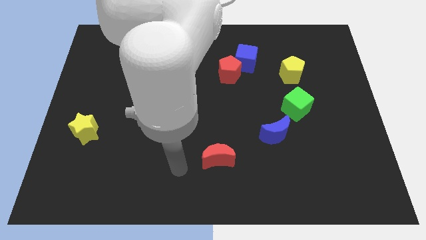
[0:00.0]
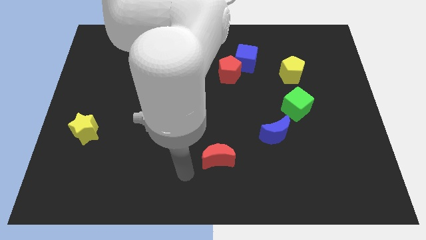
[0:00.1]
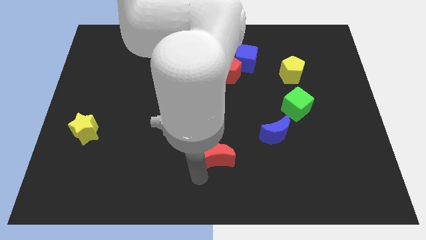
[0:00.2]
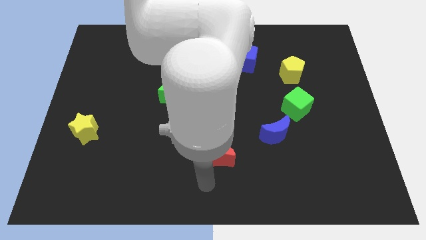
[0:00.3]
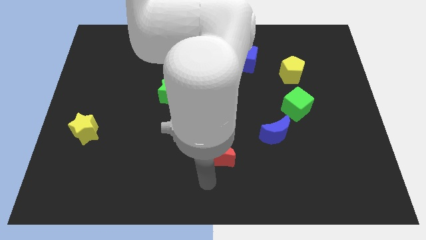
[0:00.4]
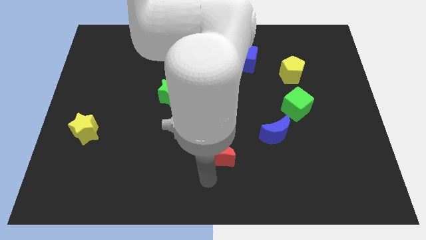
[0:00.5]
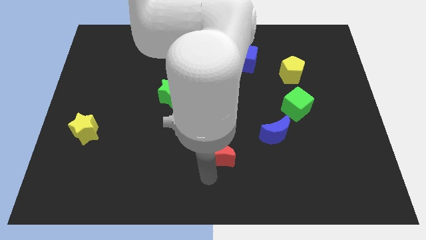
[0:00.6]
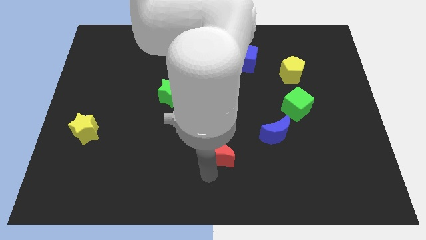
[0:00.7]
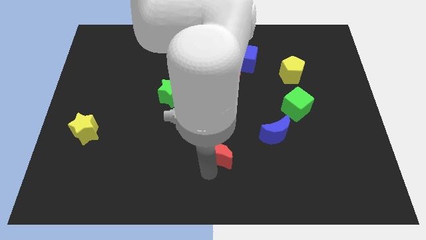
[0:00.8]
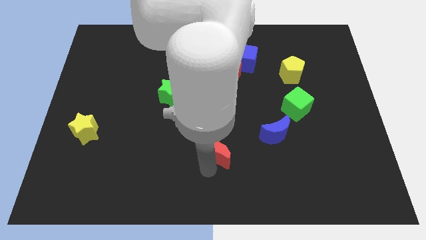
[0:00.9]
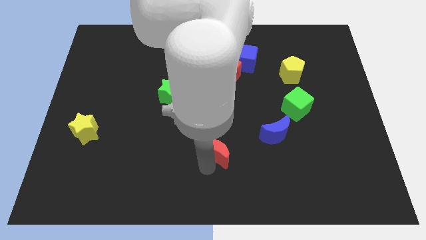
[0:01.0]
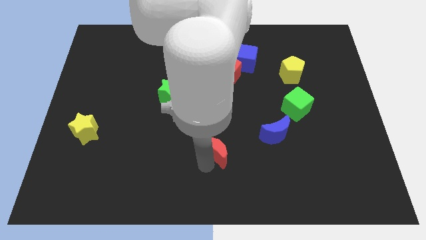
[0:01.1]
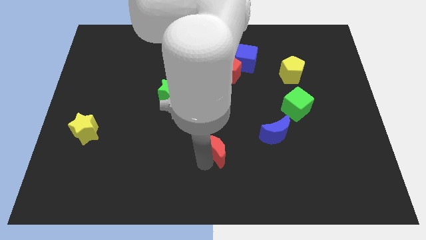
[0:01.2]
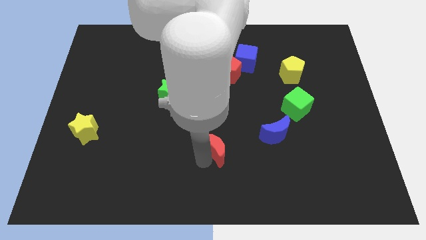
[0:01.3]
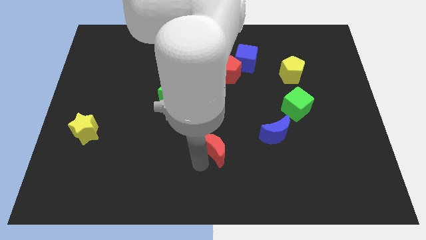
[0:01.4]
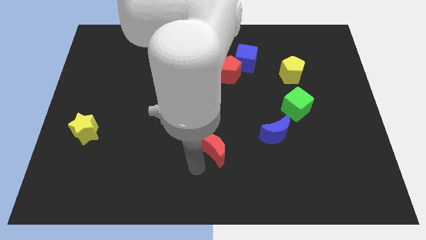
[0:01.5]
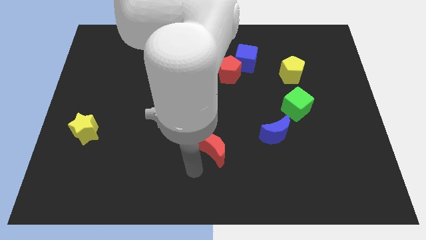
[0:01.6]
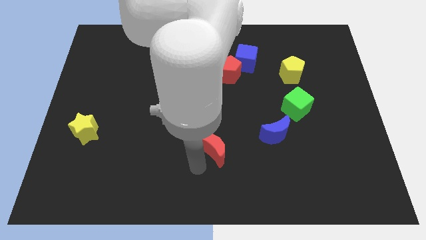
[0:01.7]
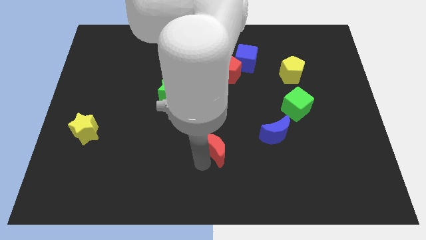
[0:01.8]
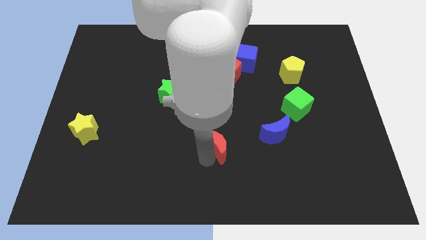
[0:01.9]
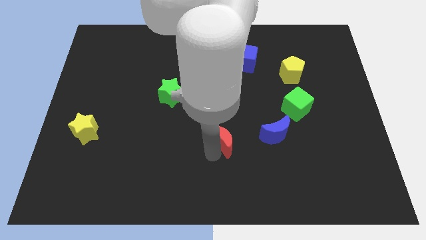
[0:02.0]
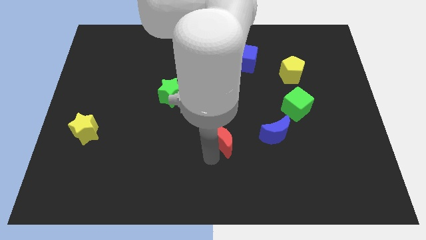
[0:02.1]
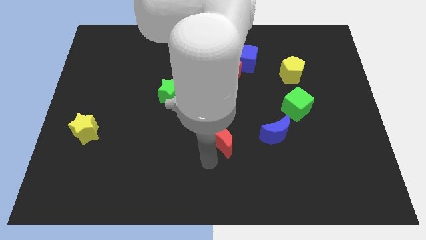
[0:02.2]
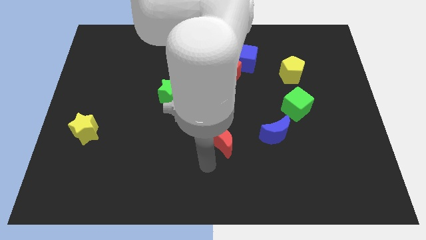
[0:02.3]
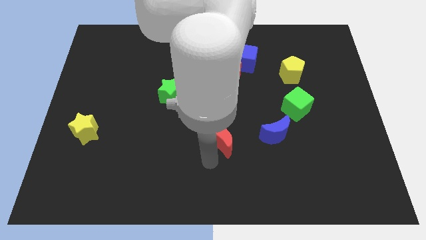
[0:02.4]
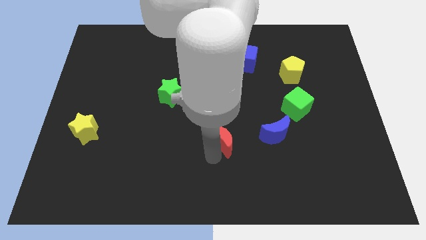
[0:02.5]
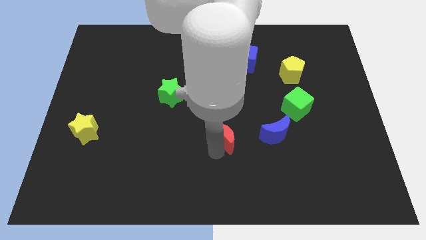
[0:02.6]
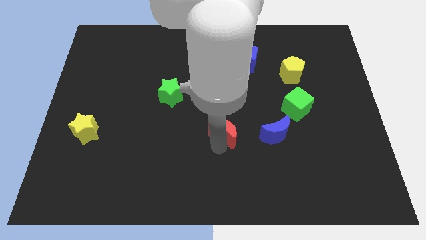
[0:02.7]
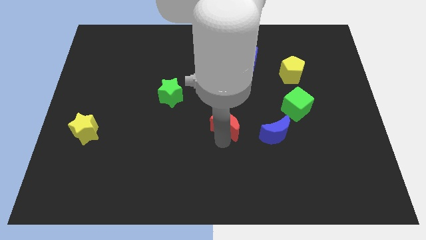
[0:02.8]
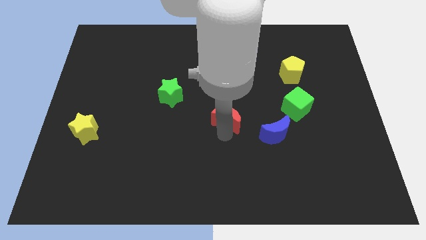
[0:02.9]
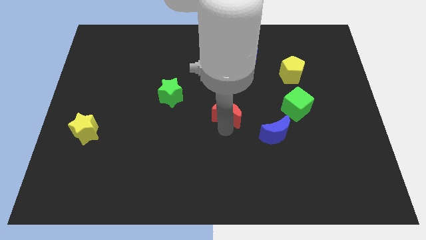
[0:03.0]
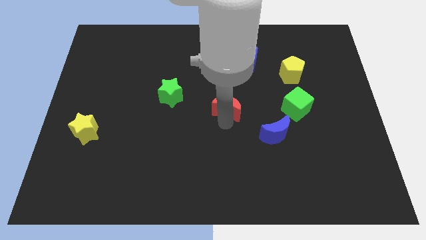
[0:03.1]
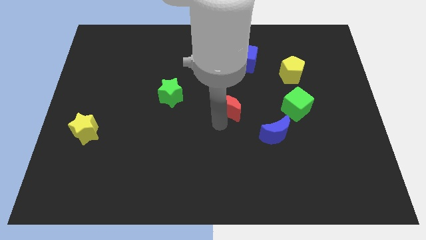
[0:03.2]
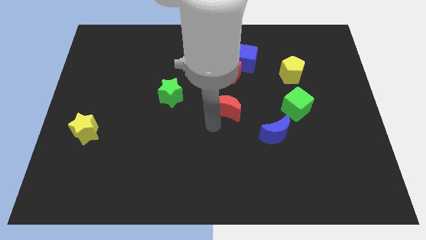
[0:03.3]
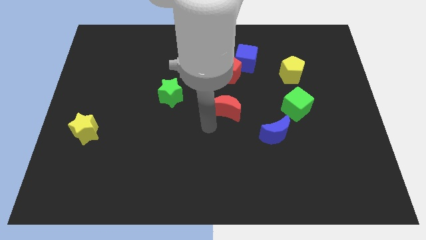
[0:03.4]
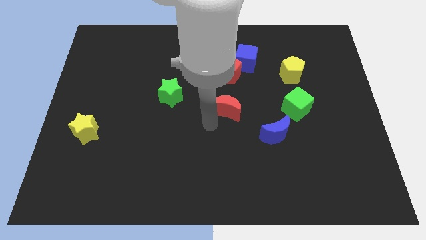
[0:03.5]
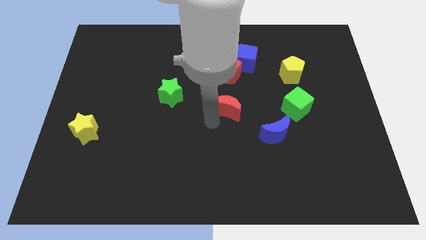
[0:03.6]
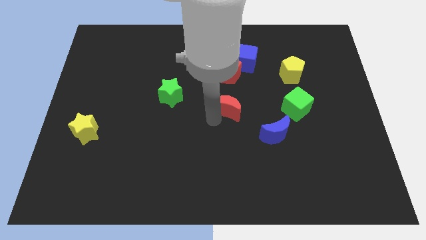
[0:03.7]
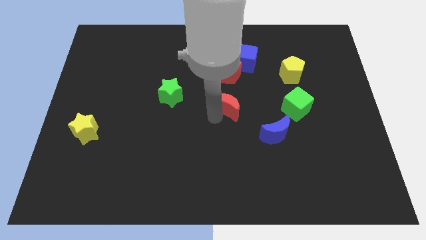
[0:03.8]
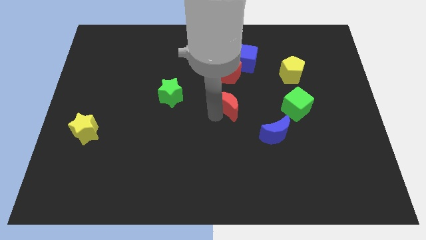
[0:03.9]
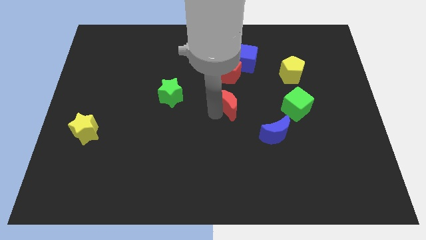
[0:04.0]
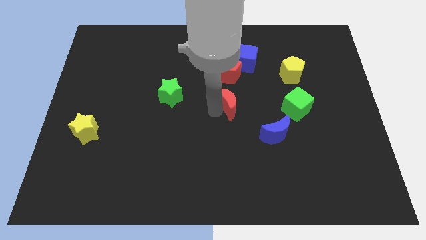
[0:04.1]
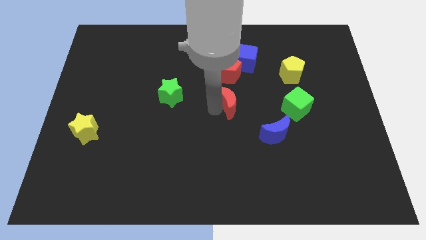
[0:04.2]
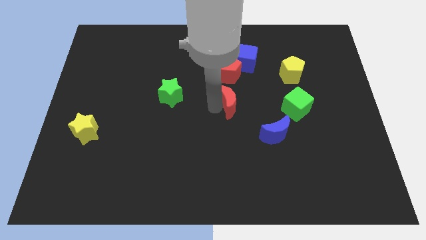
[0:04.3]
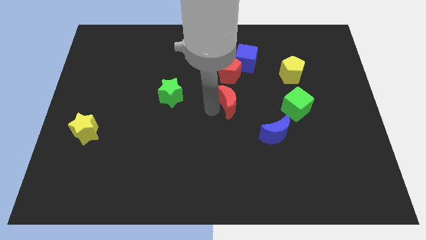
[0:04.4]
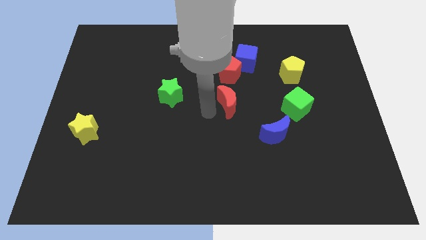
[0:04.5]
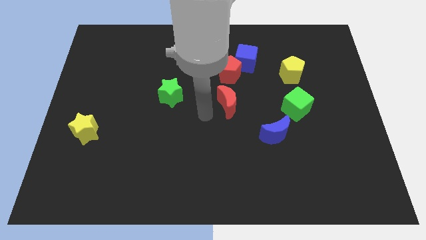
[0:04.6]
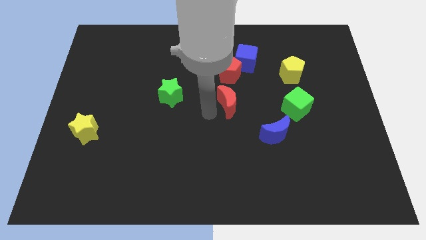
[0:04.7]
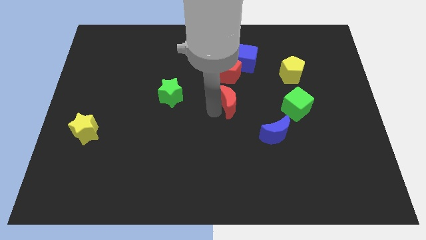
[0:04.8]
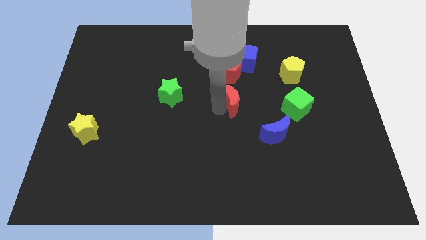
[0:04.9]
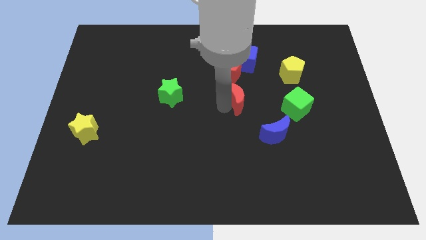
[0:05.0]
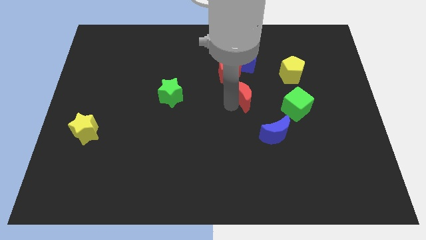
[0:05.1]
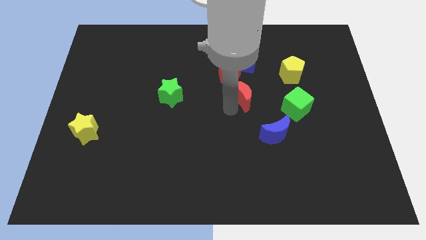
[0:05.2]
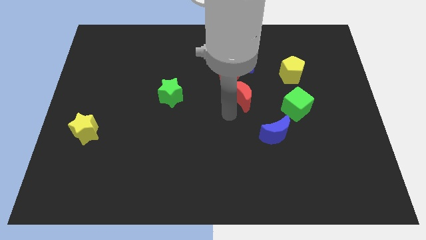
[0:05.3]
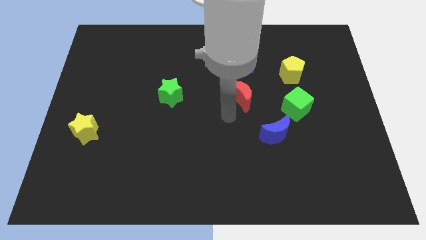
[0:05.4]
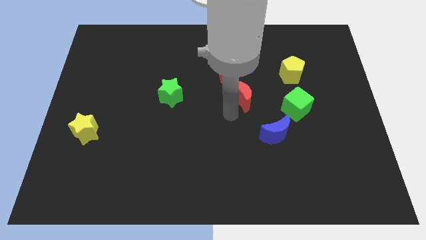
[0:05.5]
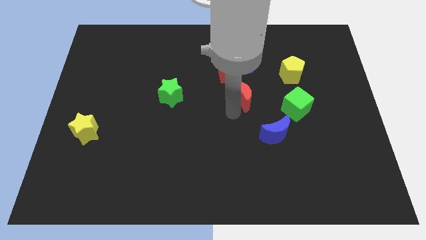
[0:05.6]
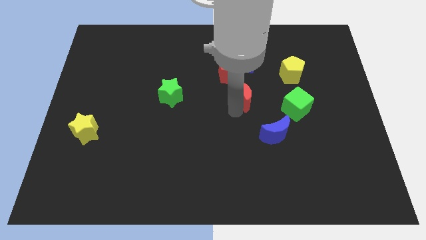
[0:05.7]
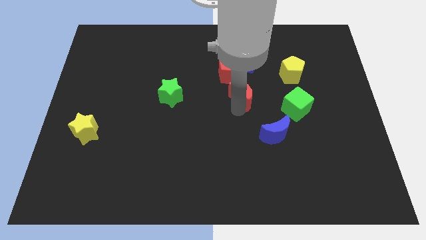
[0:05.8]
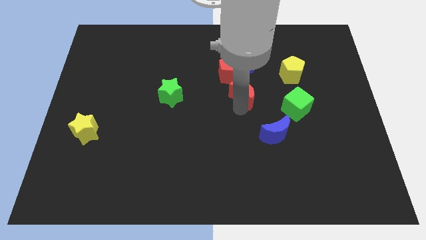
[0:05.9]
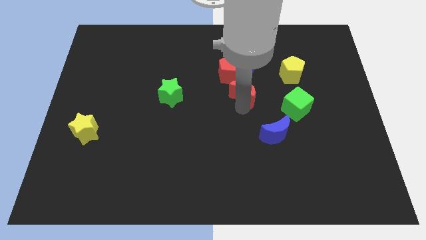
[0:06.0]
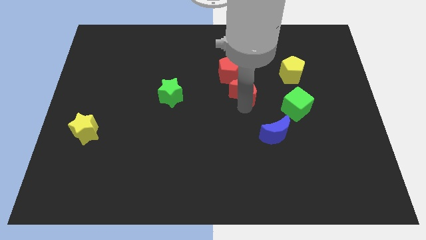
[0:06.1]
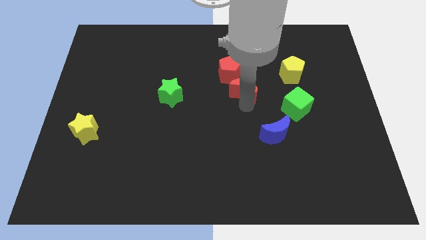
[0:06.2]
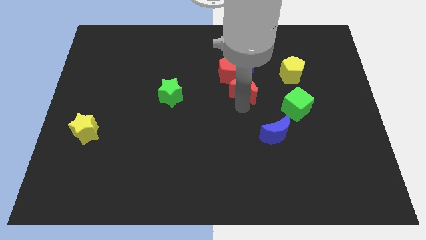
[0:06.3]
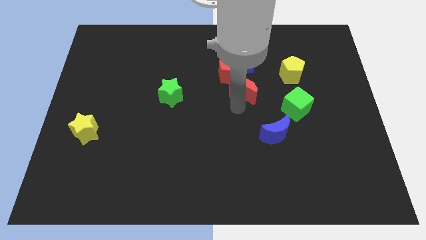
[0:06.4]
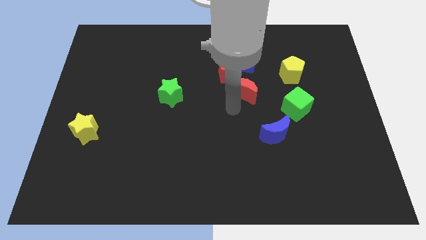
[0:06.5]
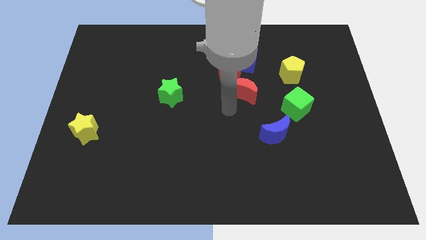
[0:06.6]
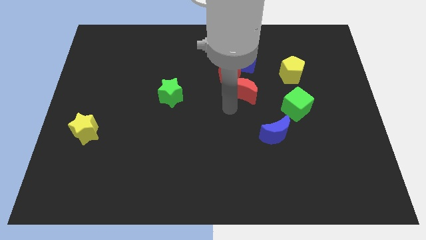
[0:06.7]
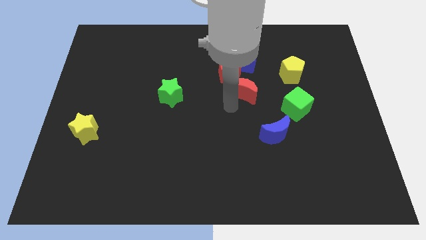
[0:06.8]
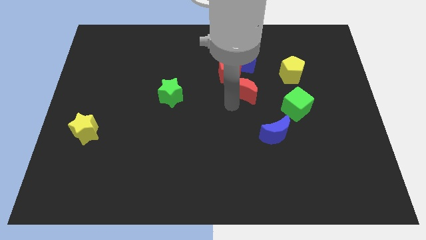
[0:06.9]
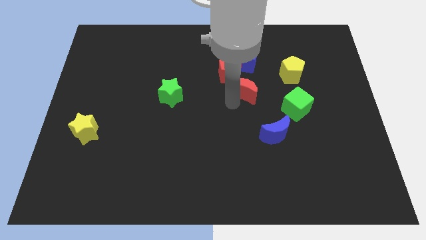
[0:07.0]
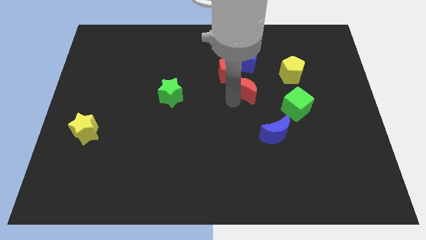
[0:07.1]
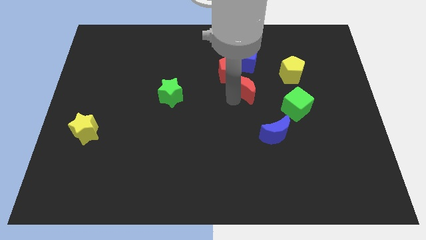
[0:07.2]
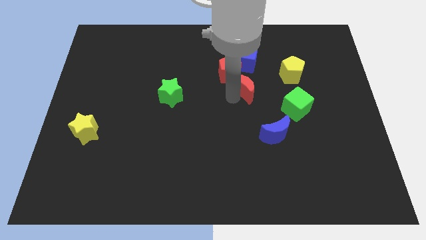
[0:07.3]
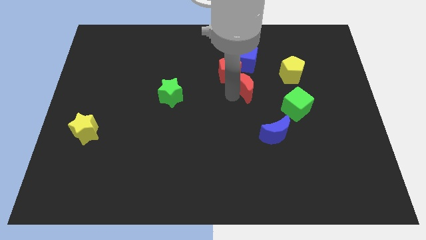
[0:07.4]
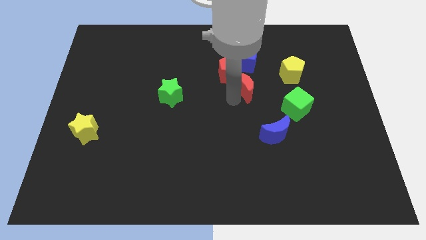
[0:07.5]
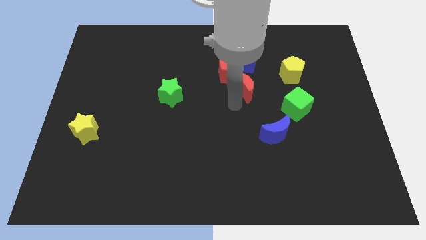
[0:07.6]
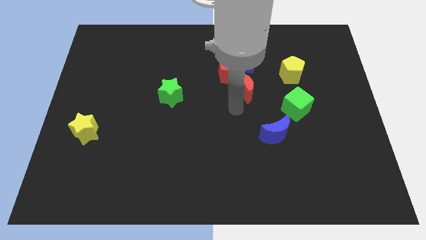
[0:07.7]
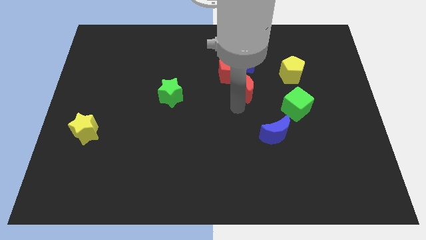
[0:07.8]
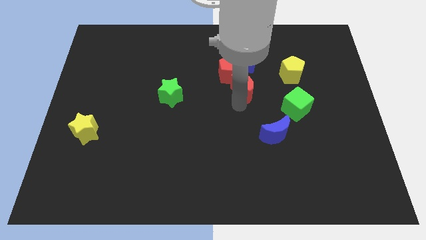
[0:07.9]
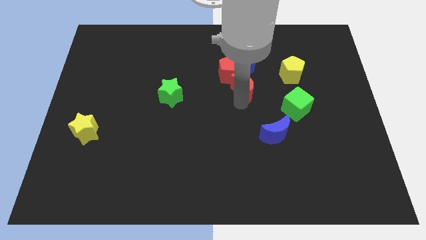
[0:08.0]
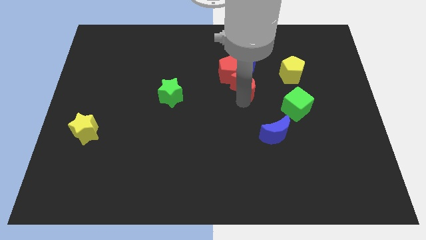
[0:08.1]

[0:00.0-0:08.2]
put the red moon to the left of the yellow pentagon

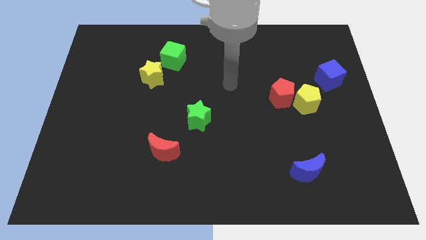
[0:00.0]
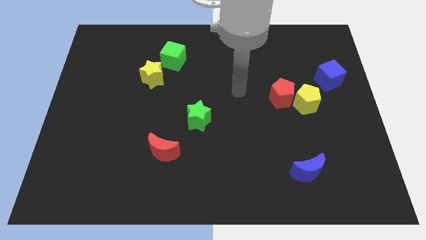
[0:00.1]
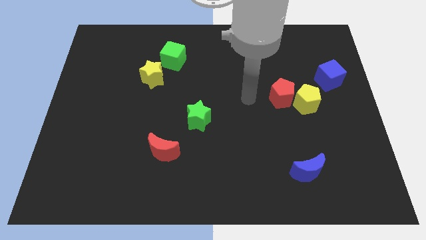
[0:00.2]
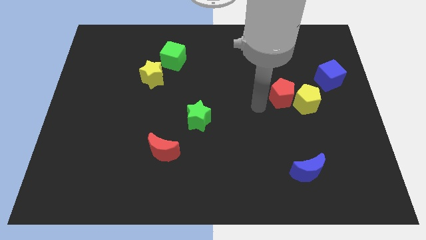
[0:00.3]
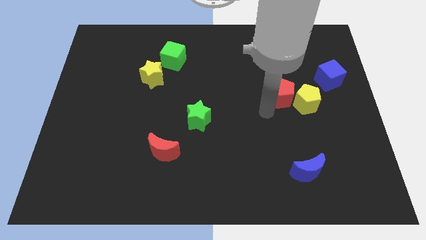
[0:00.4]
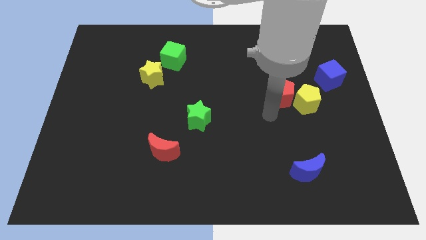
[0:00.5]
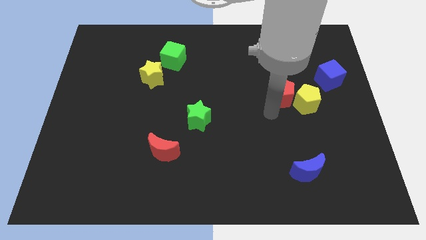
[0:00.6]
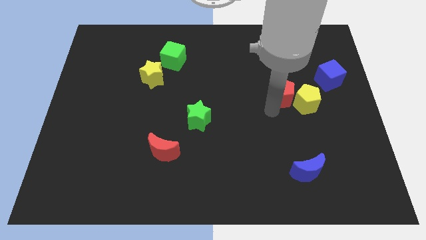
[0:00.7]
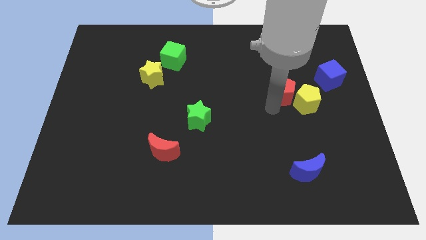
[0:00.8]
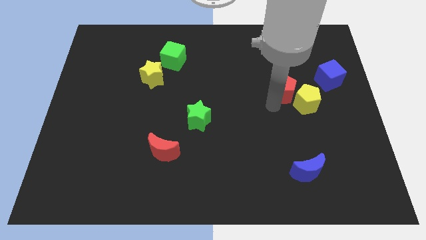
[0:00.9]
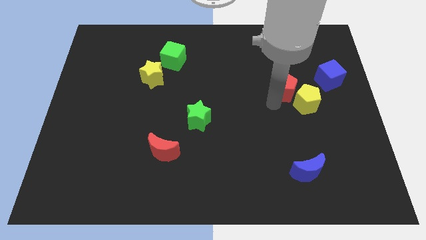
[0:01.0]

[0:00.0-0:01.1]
put the red pentagon to the top side of the yellow pentagon
